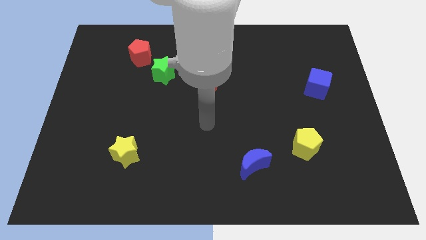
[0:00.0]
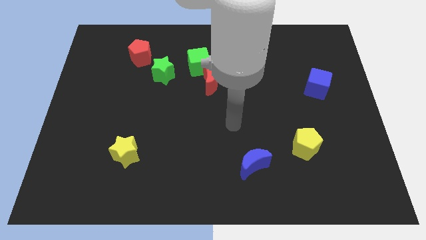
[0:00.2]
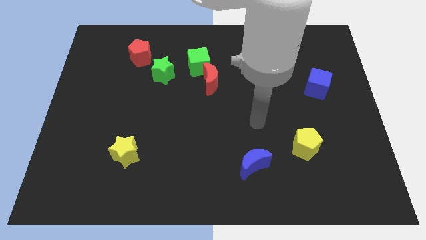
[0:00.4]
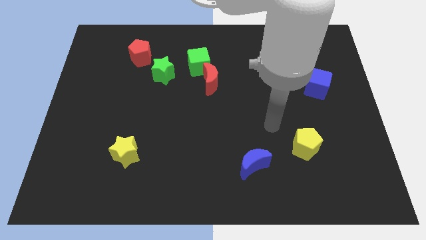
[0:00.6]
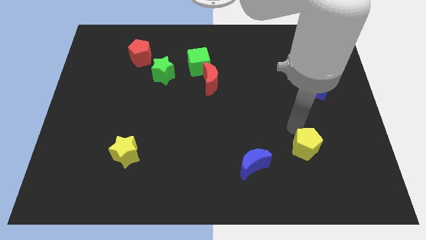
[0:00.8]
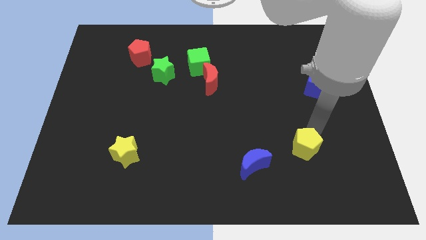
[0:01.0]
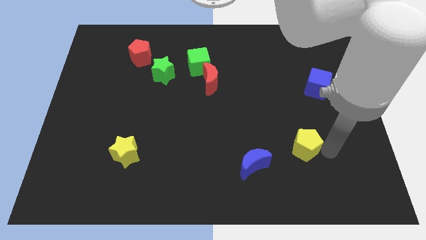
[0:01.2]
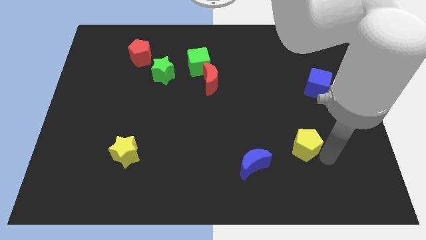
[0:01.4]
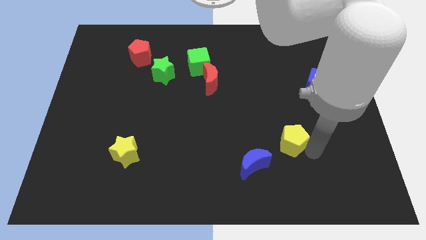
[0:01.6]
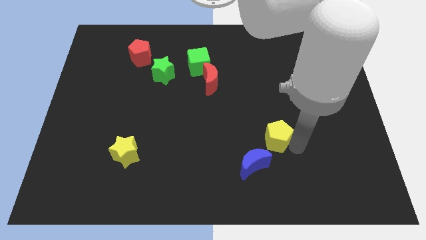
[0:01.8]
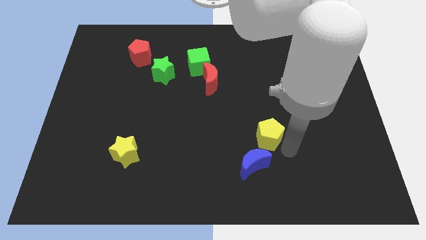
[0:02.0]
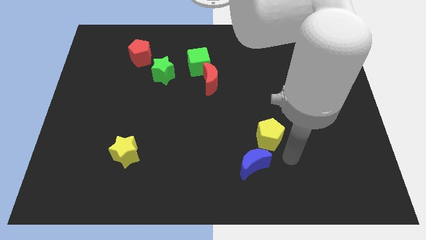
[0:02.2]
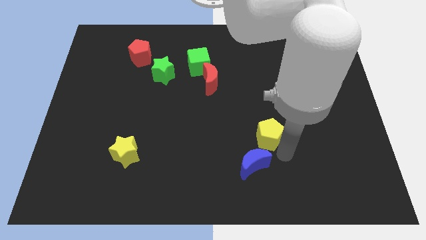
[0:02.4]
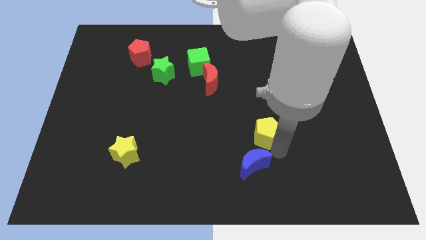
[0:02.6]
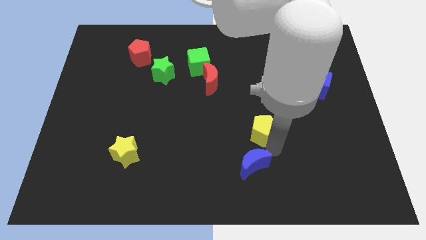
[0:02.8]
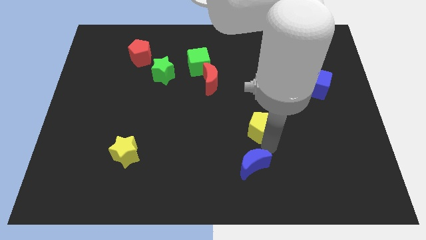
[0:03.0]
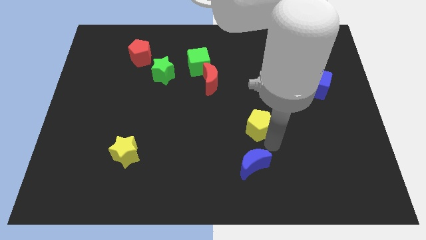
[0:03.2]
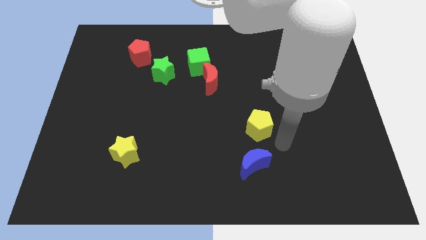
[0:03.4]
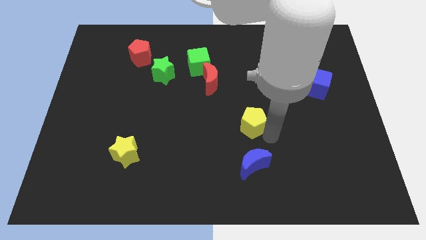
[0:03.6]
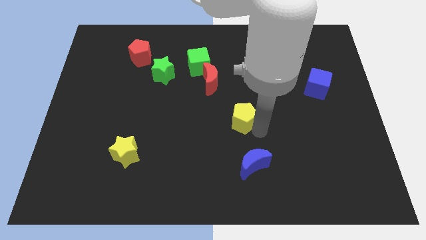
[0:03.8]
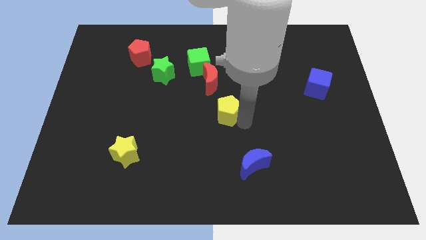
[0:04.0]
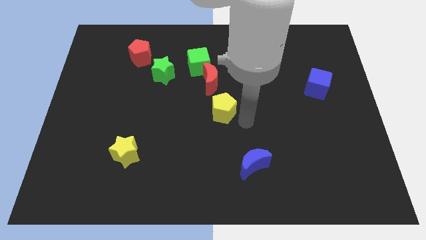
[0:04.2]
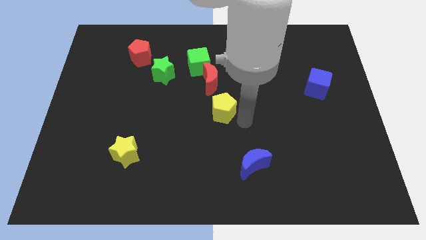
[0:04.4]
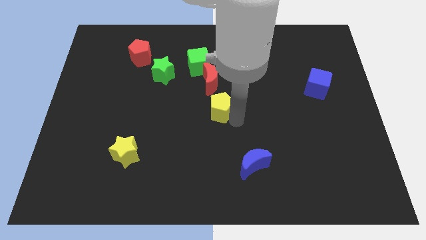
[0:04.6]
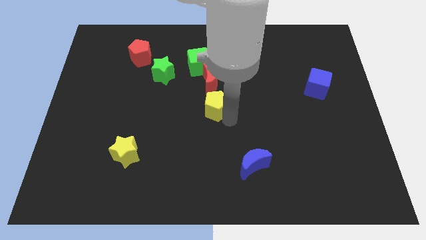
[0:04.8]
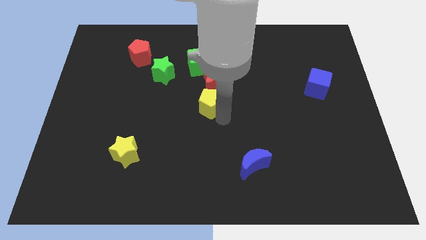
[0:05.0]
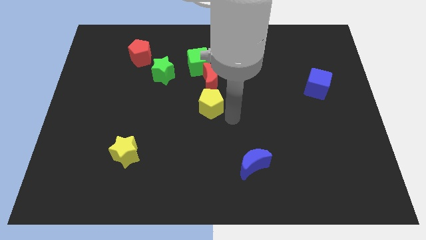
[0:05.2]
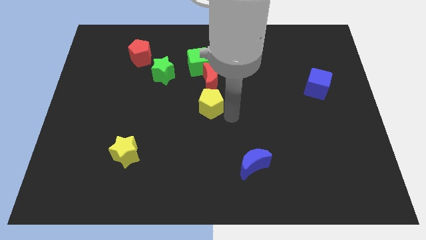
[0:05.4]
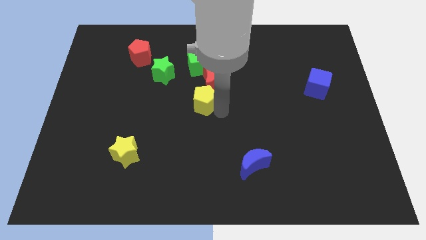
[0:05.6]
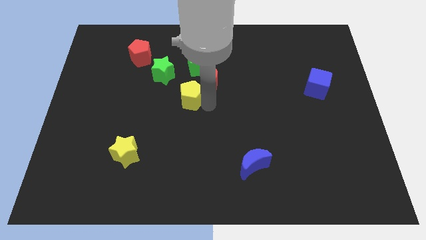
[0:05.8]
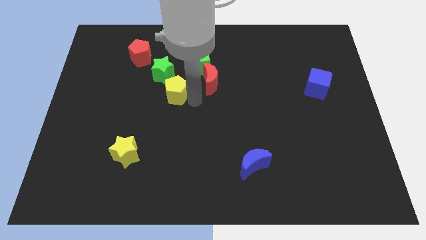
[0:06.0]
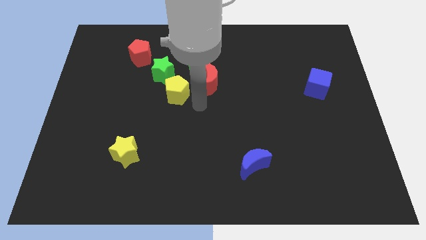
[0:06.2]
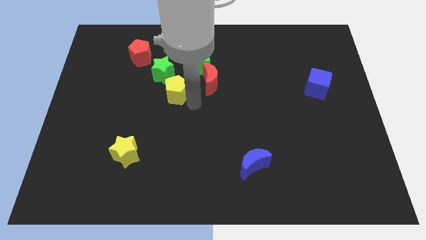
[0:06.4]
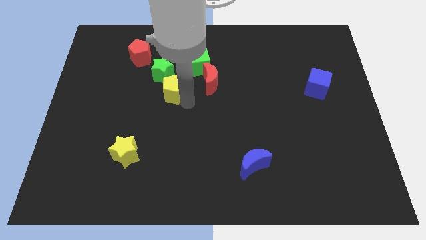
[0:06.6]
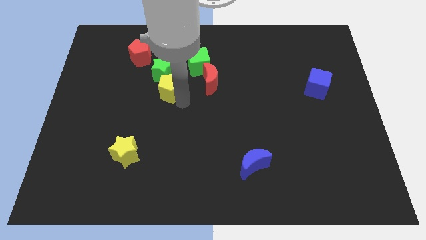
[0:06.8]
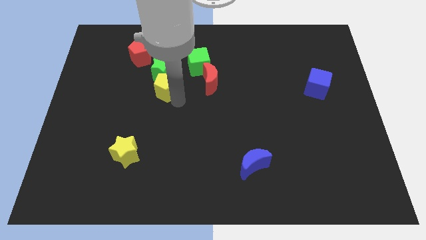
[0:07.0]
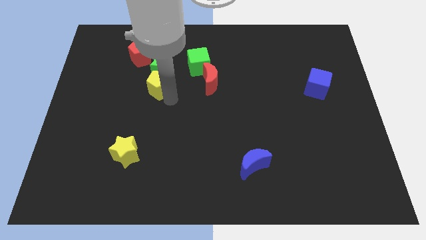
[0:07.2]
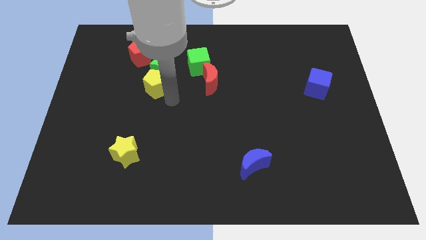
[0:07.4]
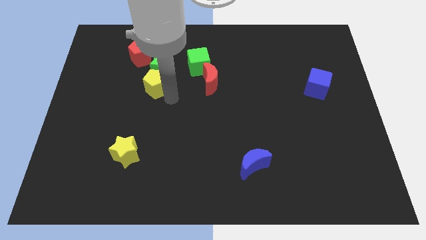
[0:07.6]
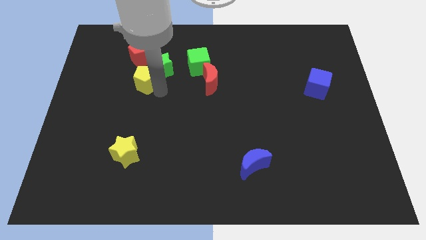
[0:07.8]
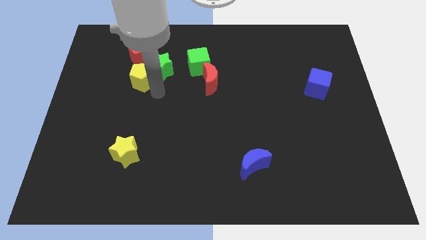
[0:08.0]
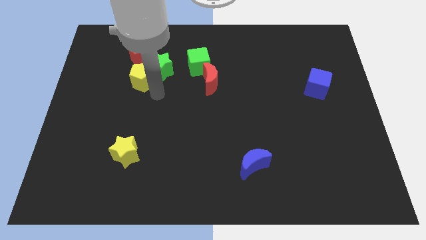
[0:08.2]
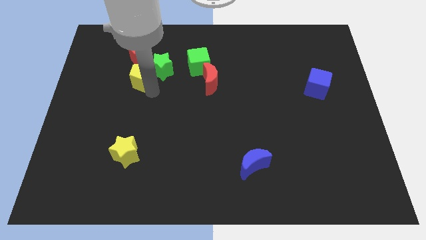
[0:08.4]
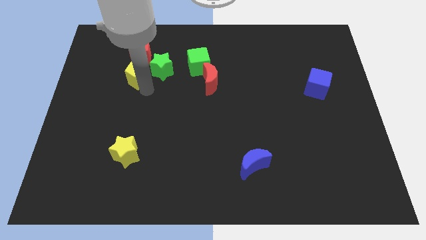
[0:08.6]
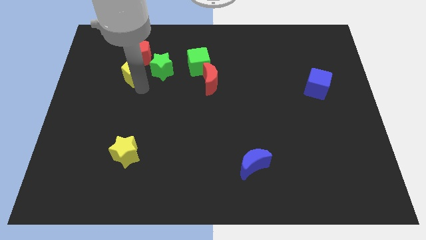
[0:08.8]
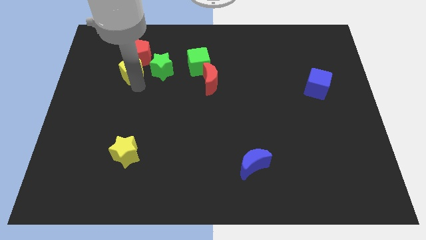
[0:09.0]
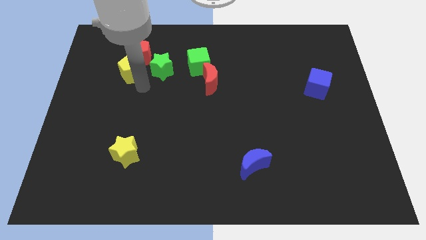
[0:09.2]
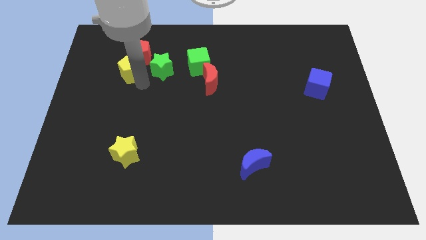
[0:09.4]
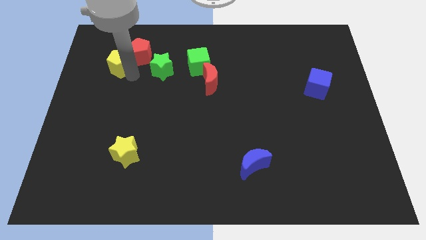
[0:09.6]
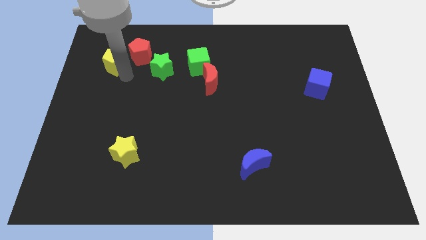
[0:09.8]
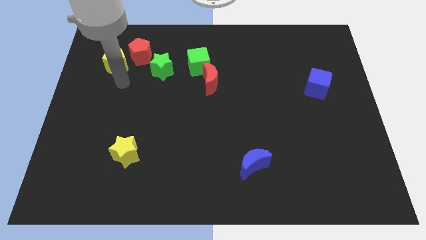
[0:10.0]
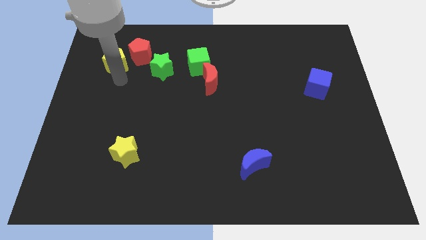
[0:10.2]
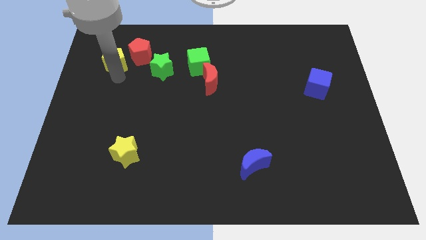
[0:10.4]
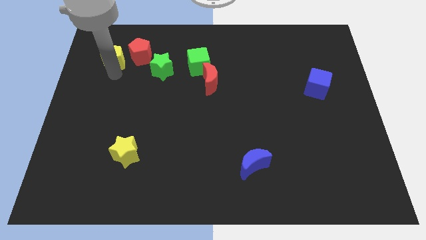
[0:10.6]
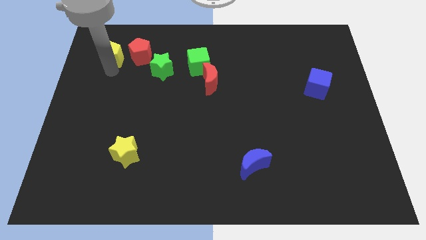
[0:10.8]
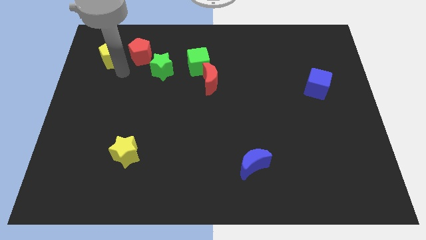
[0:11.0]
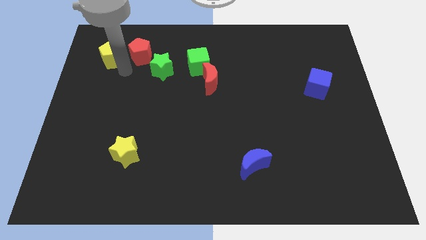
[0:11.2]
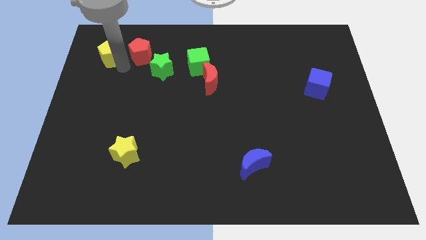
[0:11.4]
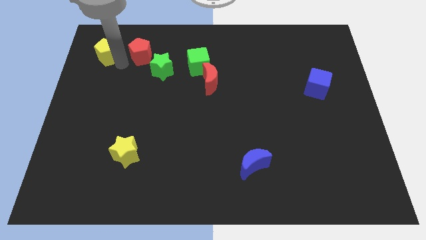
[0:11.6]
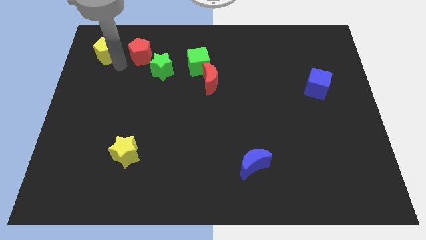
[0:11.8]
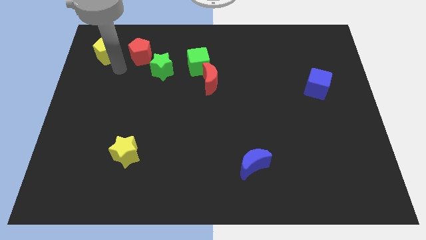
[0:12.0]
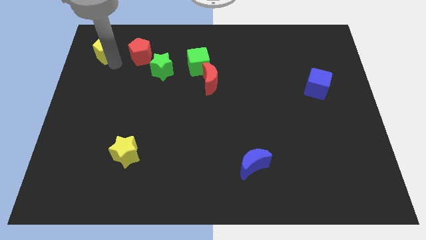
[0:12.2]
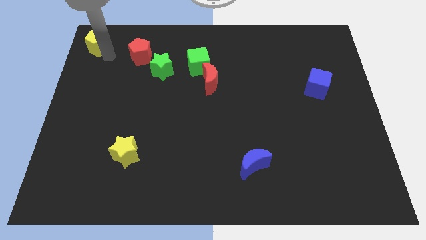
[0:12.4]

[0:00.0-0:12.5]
slide the yellow pentagon to the top left corner
